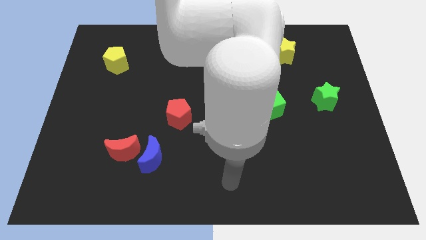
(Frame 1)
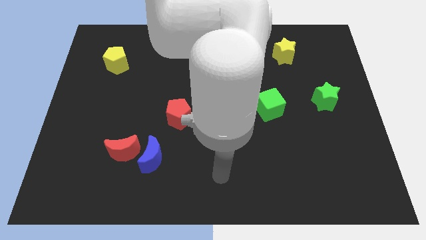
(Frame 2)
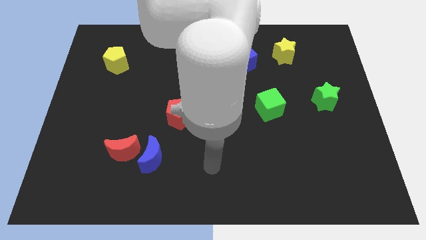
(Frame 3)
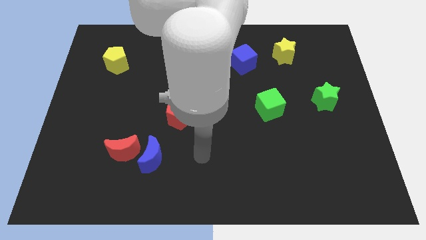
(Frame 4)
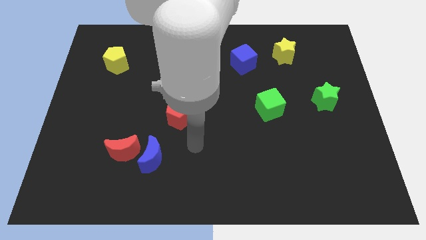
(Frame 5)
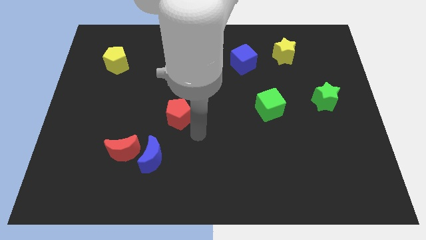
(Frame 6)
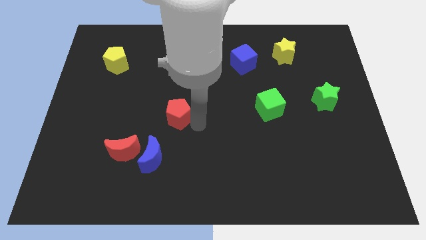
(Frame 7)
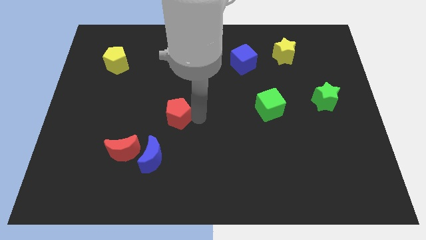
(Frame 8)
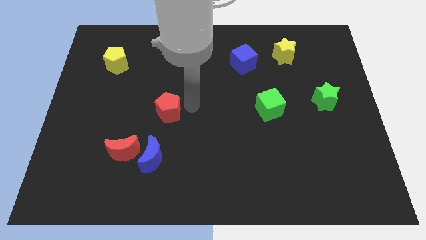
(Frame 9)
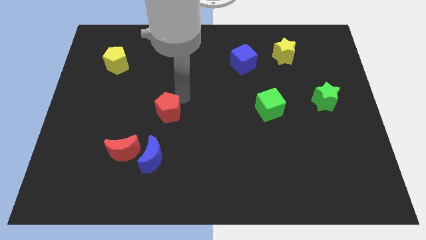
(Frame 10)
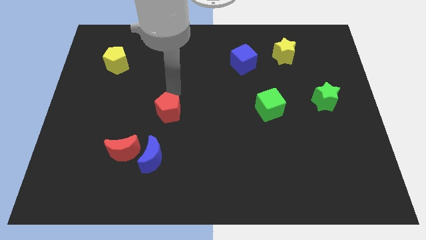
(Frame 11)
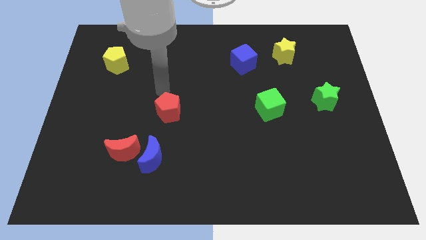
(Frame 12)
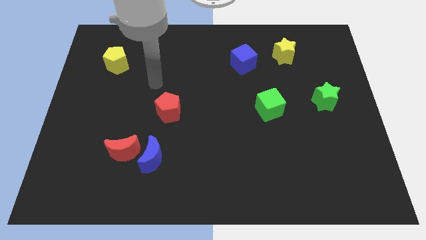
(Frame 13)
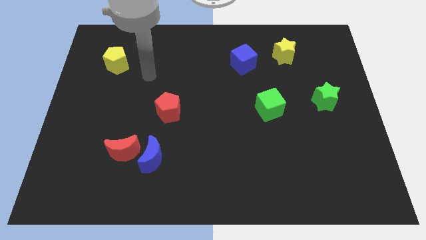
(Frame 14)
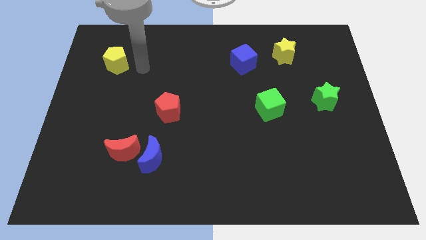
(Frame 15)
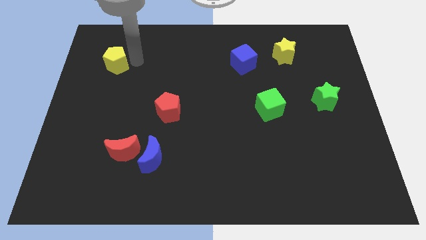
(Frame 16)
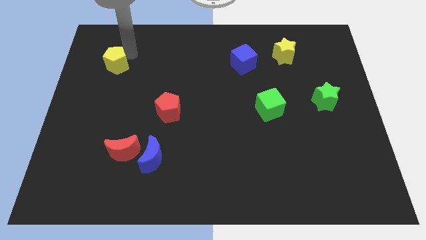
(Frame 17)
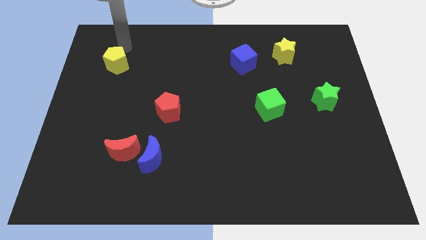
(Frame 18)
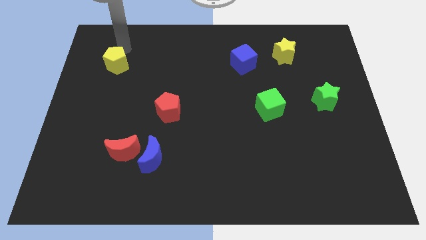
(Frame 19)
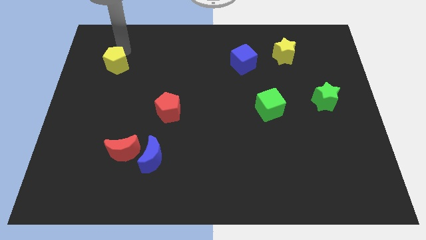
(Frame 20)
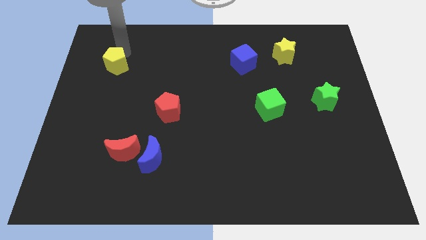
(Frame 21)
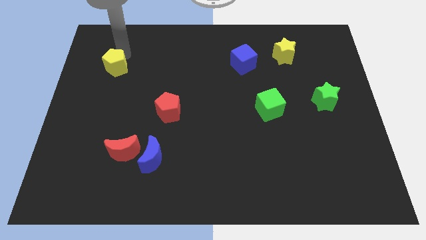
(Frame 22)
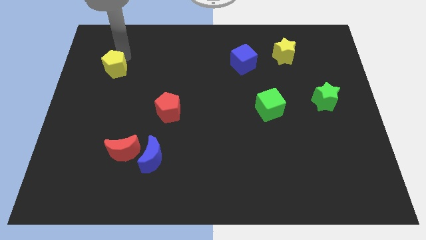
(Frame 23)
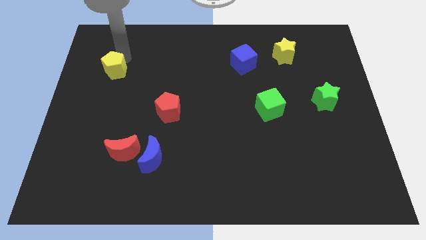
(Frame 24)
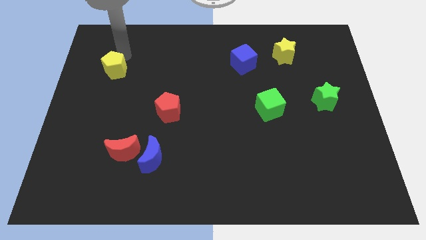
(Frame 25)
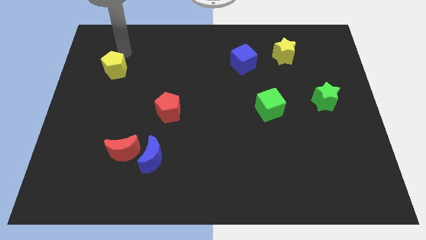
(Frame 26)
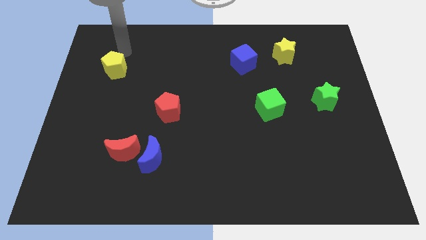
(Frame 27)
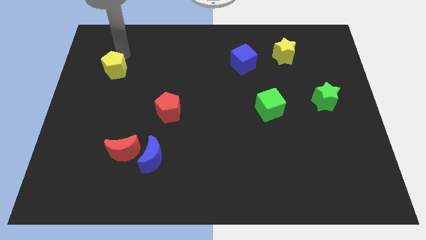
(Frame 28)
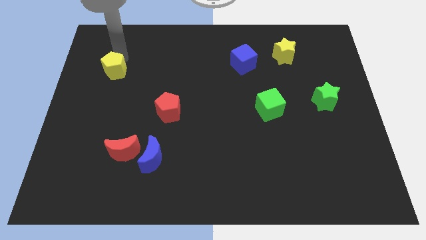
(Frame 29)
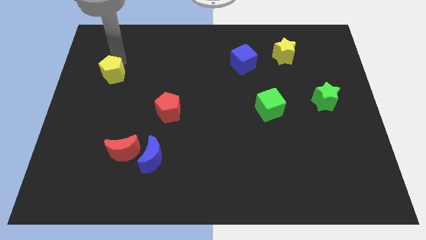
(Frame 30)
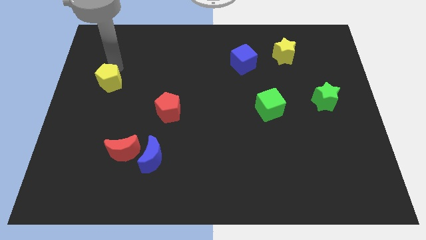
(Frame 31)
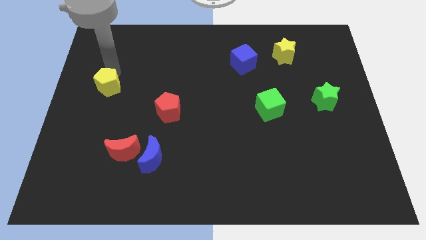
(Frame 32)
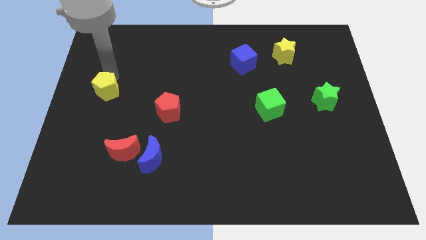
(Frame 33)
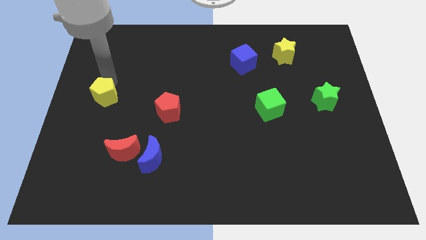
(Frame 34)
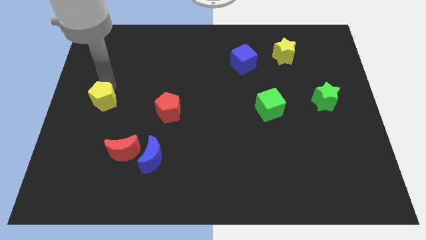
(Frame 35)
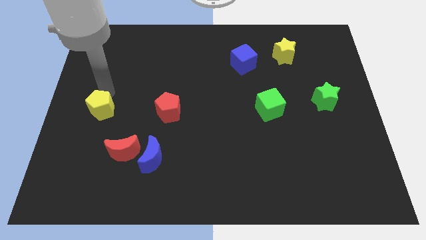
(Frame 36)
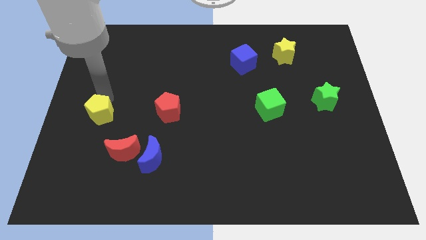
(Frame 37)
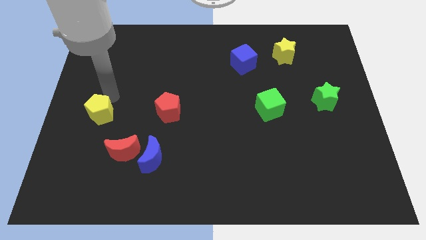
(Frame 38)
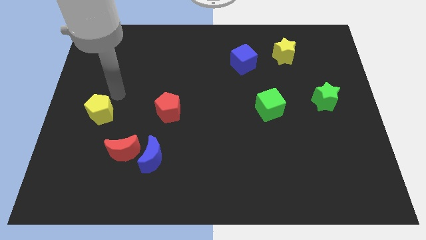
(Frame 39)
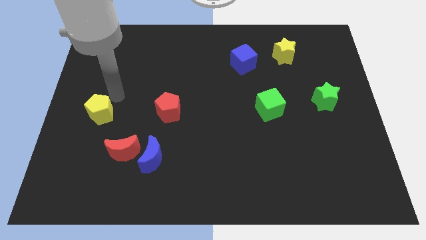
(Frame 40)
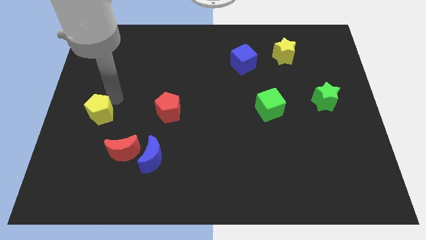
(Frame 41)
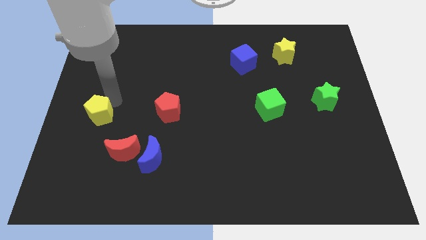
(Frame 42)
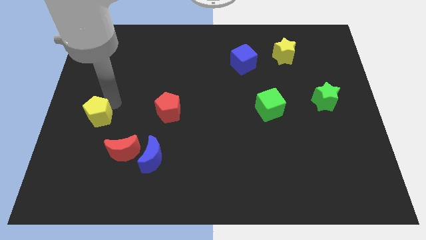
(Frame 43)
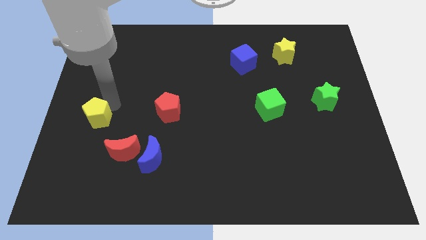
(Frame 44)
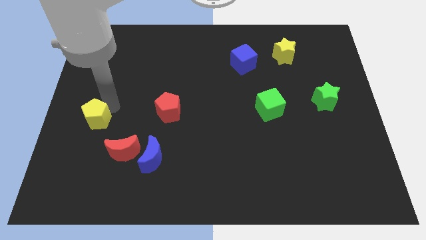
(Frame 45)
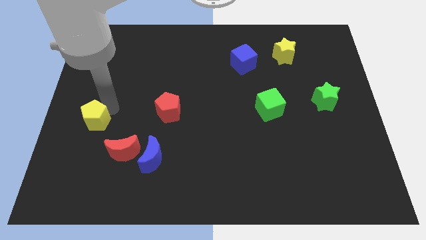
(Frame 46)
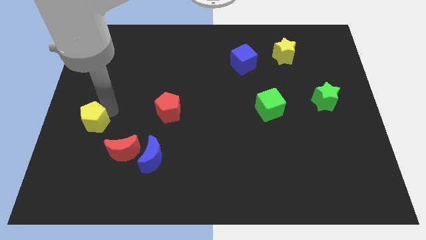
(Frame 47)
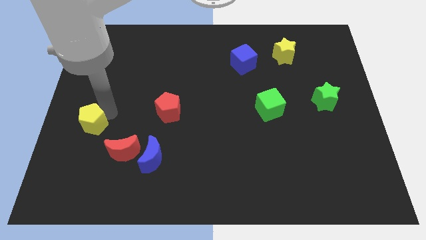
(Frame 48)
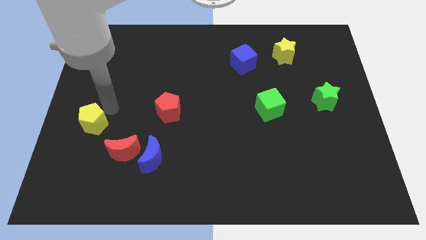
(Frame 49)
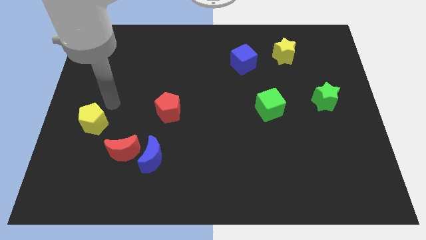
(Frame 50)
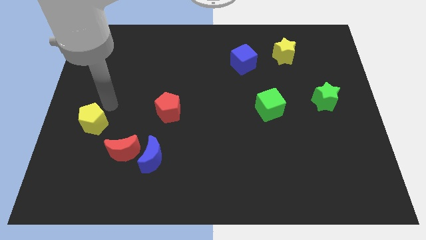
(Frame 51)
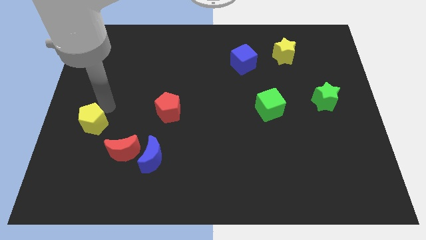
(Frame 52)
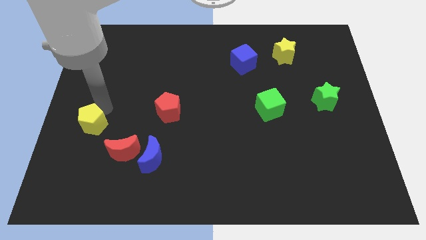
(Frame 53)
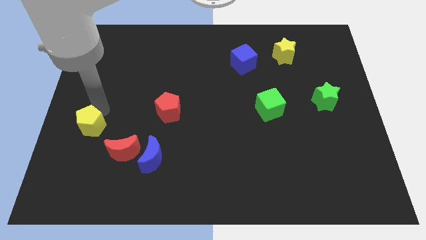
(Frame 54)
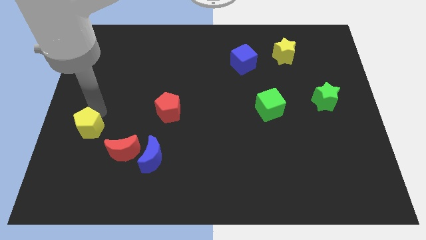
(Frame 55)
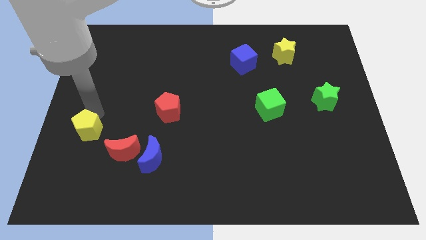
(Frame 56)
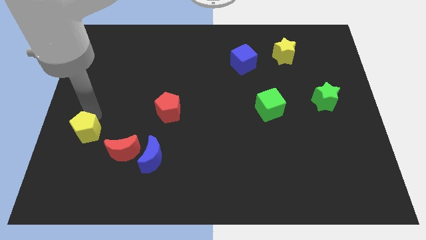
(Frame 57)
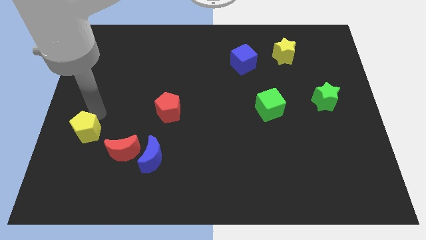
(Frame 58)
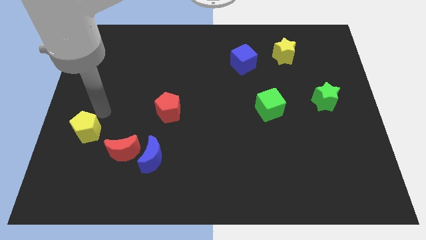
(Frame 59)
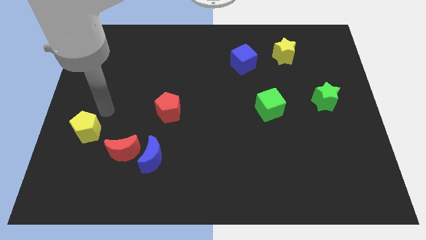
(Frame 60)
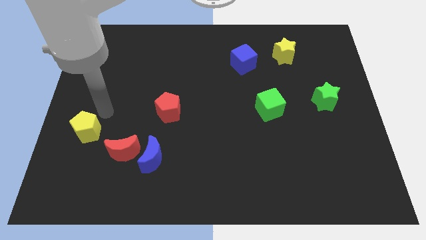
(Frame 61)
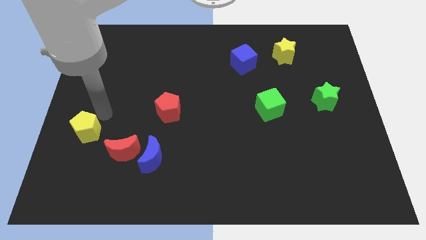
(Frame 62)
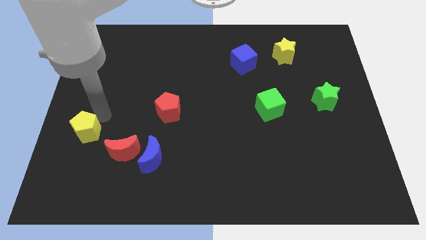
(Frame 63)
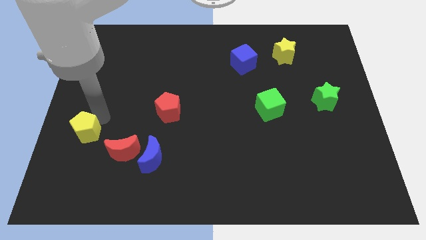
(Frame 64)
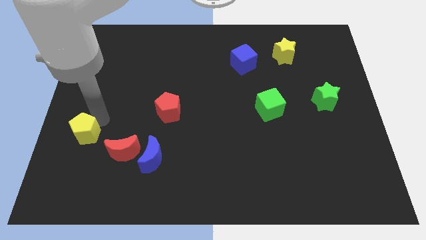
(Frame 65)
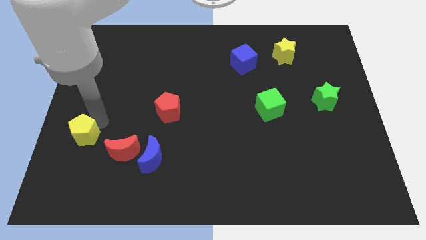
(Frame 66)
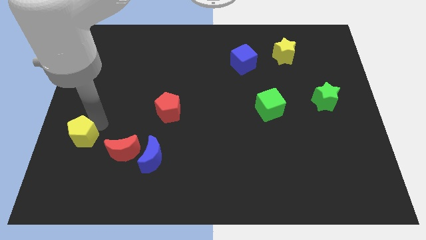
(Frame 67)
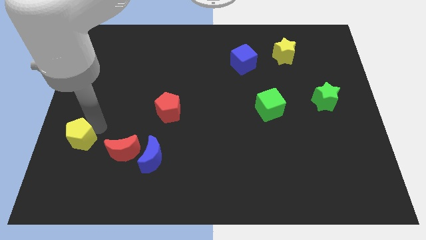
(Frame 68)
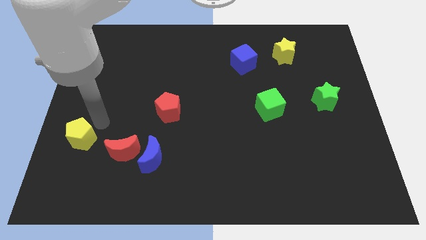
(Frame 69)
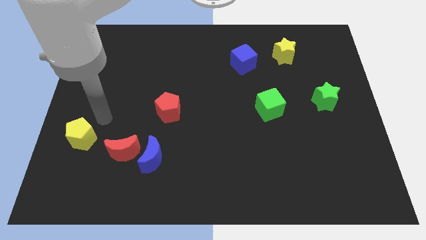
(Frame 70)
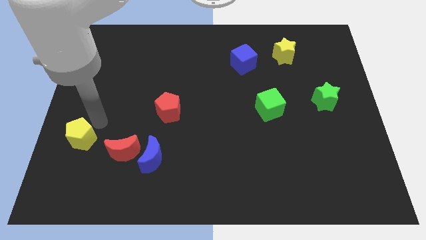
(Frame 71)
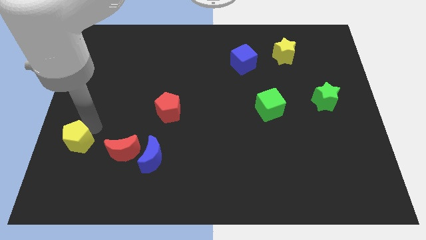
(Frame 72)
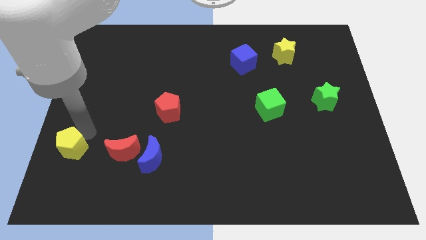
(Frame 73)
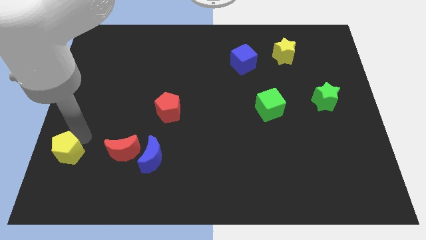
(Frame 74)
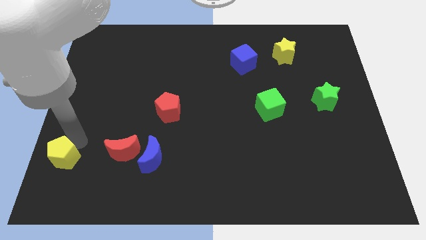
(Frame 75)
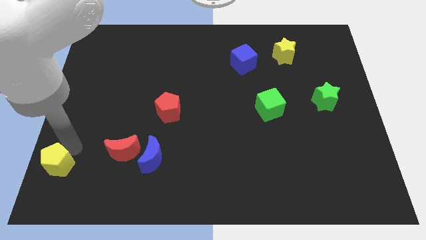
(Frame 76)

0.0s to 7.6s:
slide the yellow pentagon to the bottom left corner
